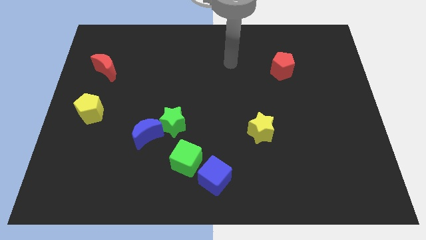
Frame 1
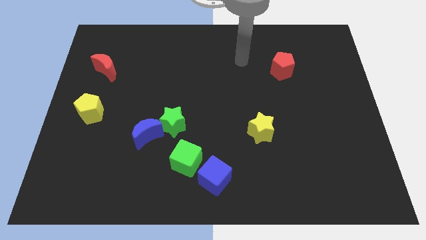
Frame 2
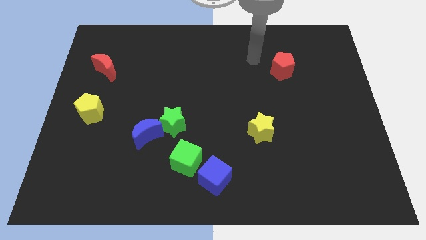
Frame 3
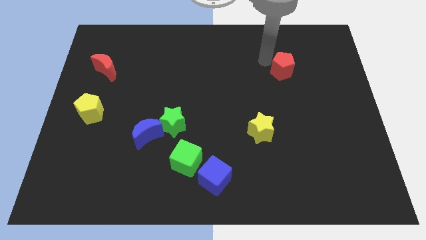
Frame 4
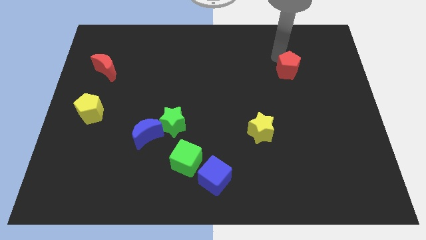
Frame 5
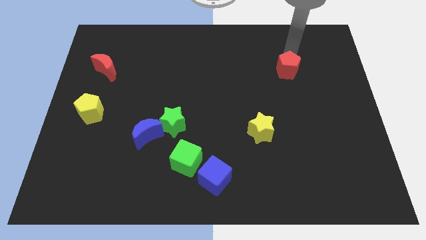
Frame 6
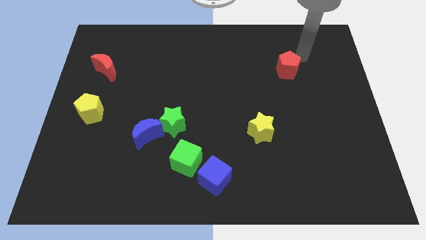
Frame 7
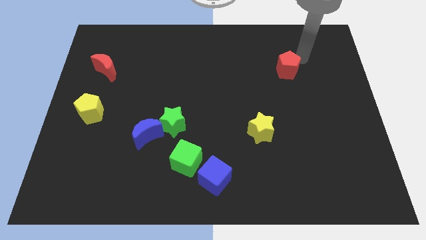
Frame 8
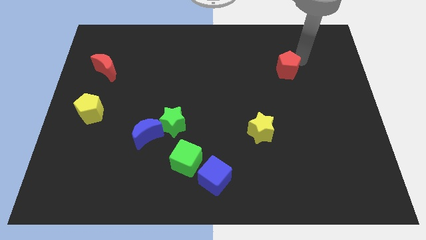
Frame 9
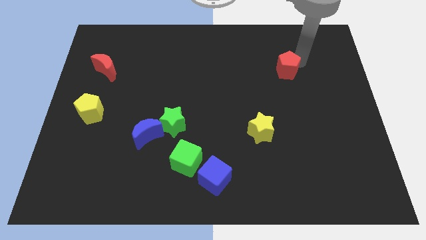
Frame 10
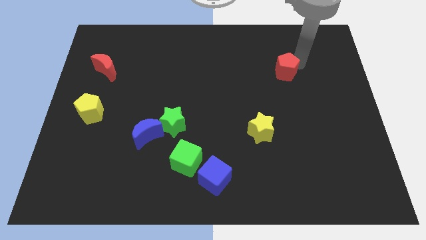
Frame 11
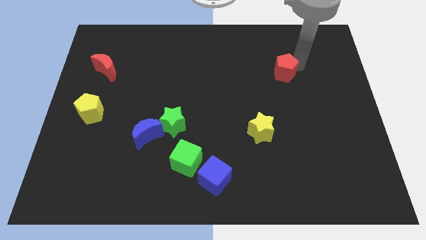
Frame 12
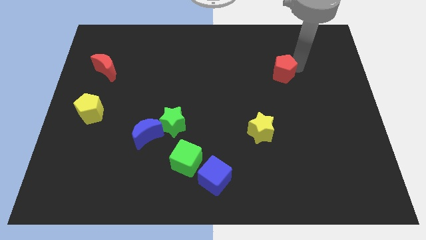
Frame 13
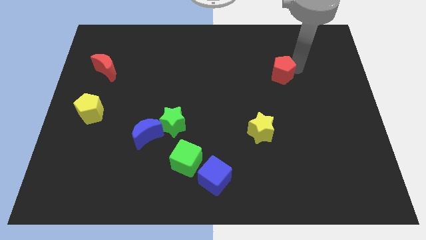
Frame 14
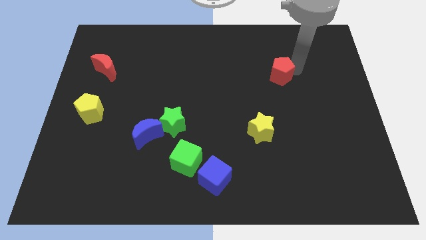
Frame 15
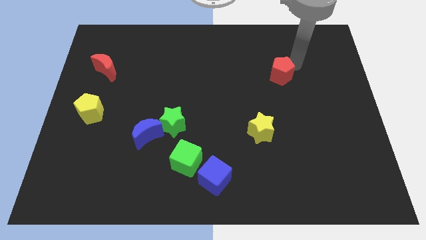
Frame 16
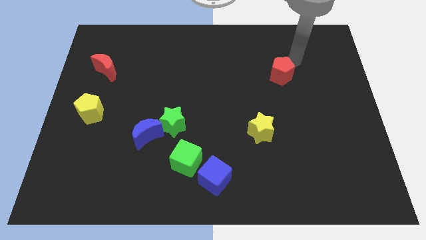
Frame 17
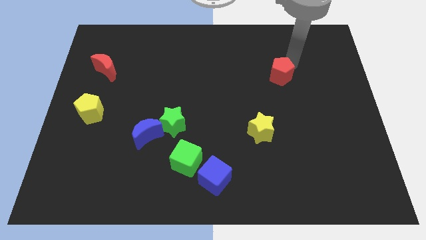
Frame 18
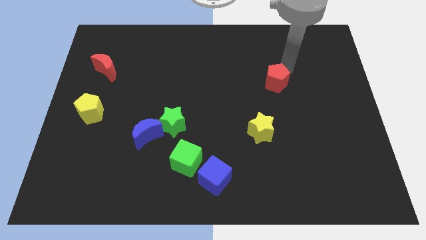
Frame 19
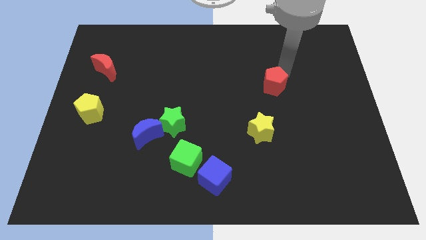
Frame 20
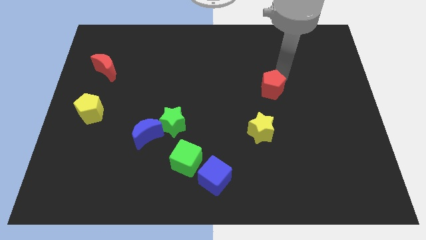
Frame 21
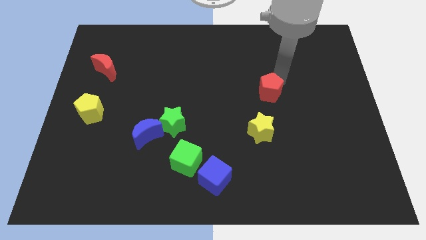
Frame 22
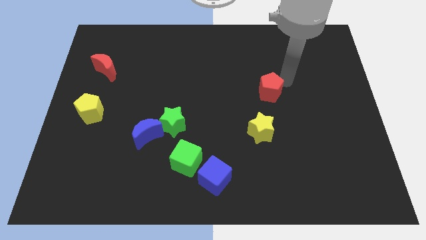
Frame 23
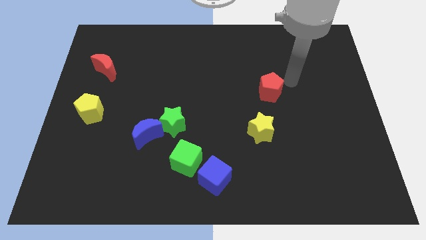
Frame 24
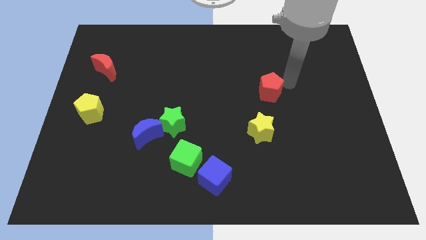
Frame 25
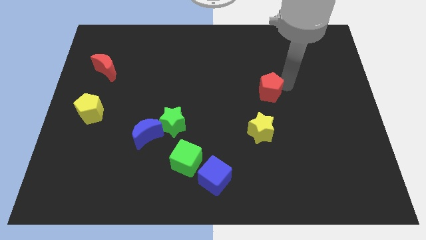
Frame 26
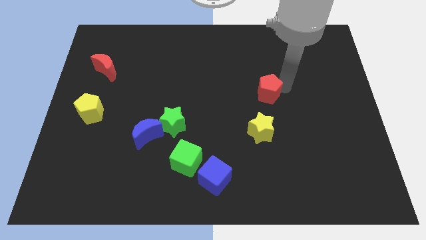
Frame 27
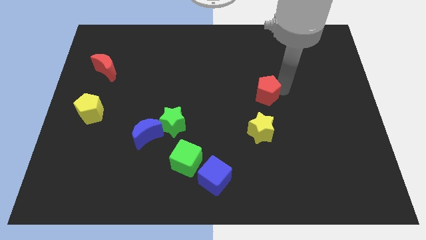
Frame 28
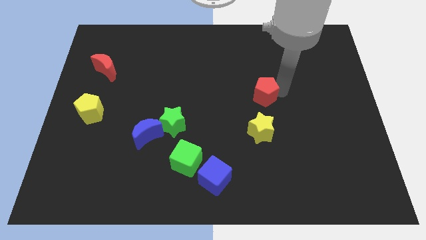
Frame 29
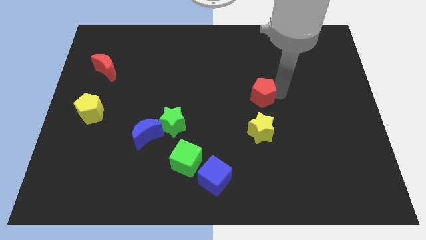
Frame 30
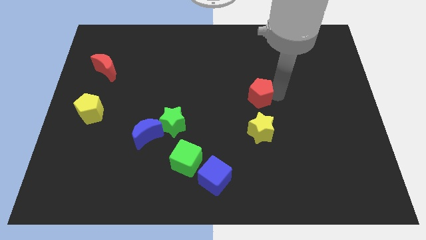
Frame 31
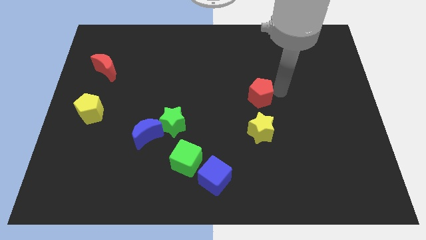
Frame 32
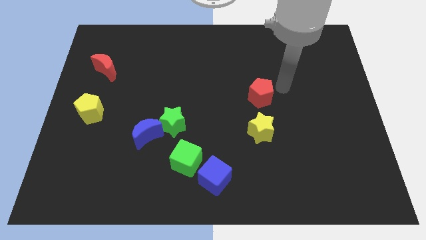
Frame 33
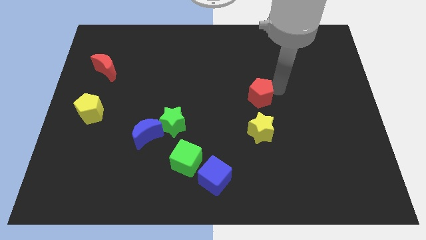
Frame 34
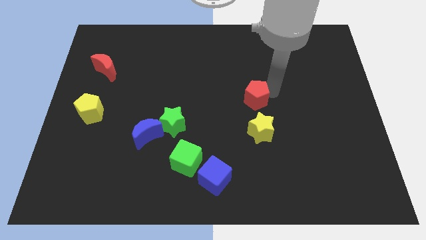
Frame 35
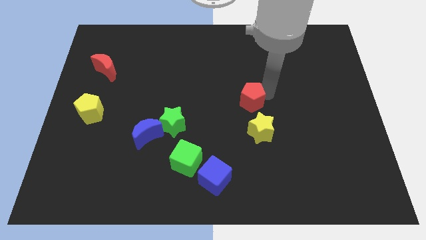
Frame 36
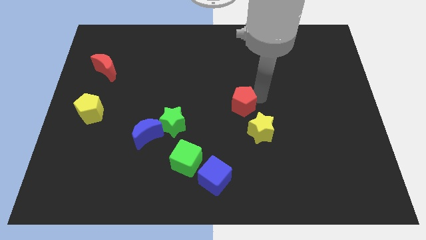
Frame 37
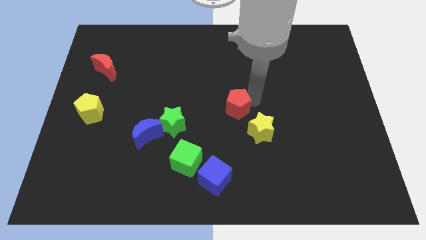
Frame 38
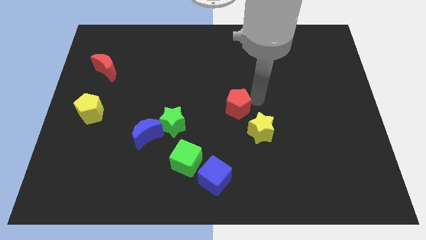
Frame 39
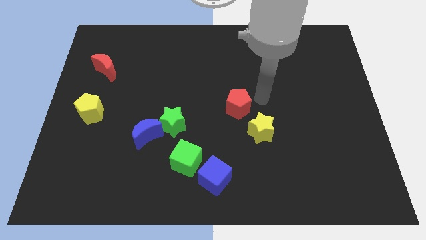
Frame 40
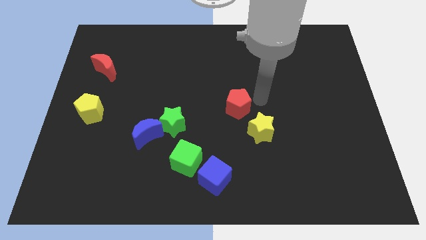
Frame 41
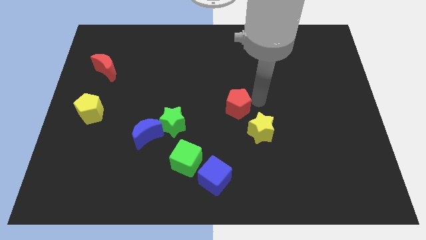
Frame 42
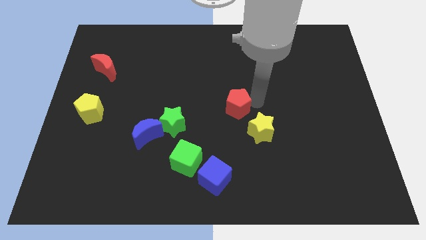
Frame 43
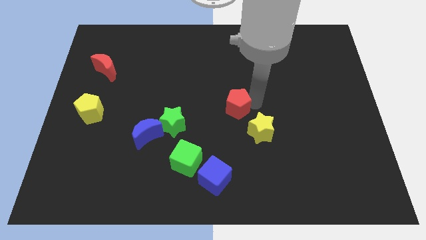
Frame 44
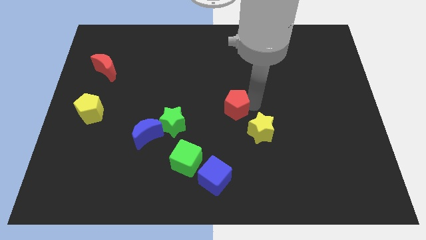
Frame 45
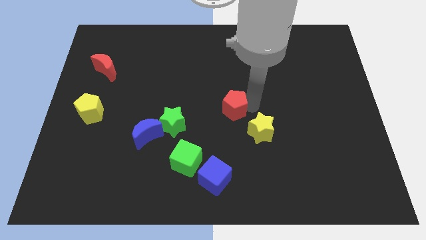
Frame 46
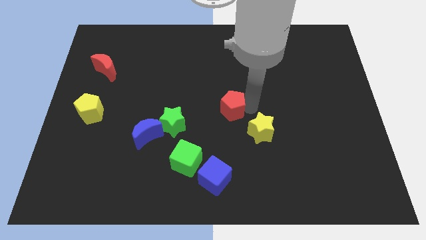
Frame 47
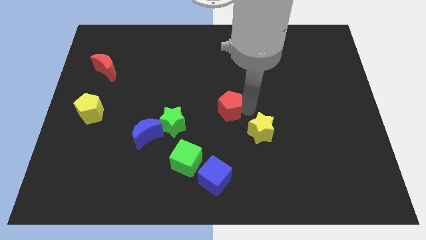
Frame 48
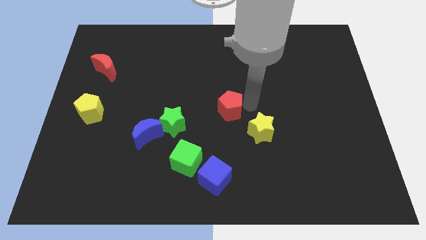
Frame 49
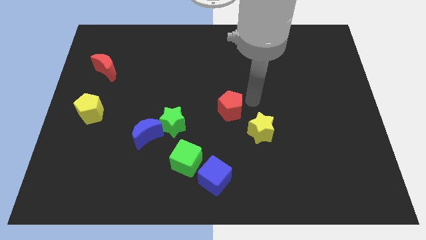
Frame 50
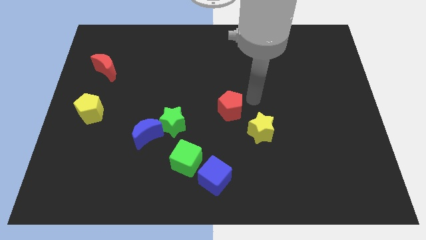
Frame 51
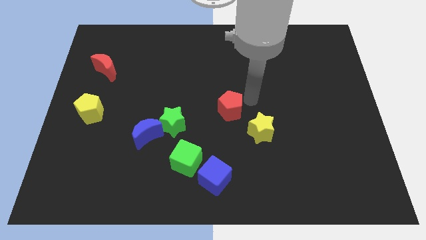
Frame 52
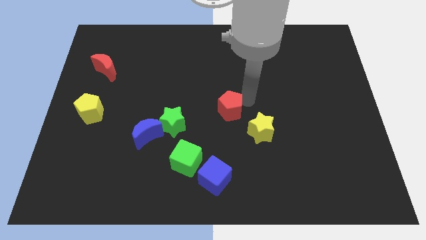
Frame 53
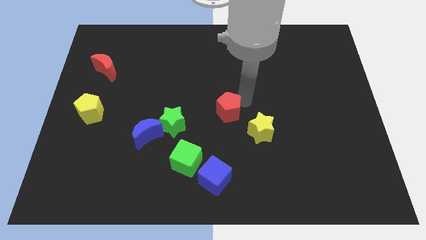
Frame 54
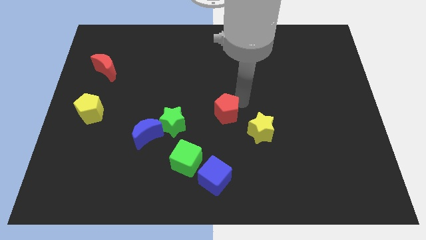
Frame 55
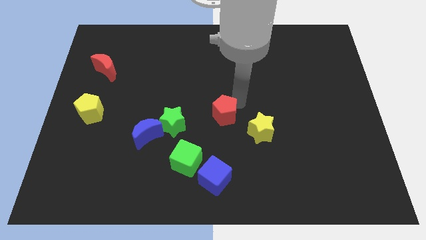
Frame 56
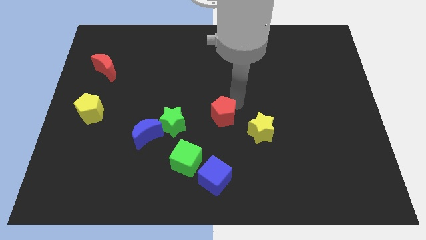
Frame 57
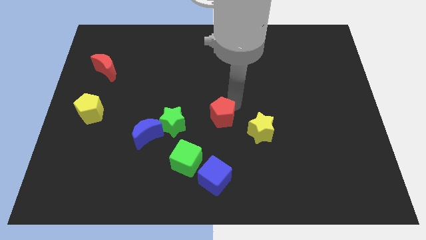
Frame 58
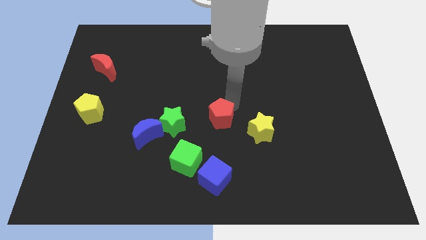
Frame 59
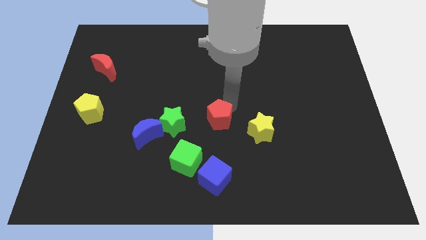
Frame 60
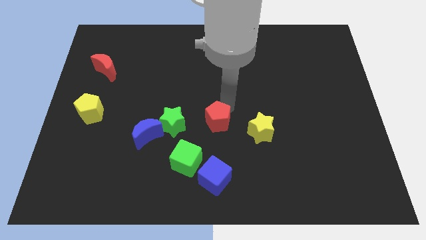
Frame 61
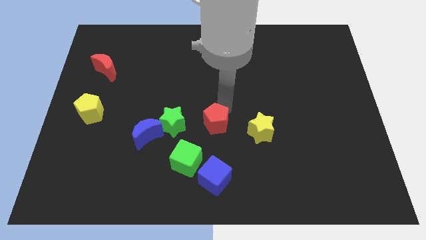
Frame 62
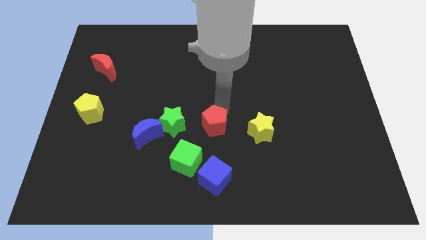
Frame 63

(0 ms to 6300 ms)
move the red pentagon just right of the blue moon

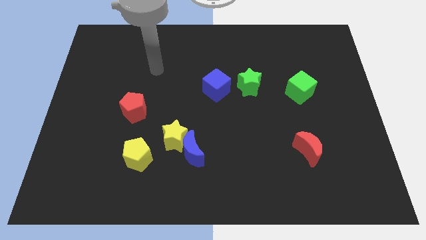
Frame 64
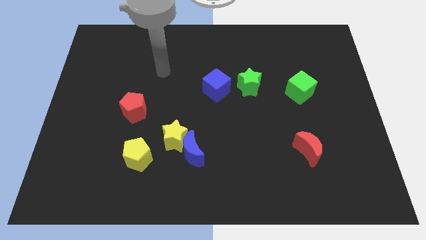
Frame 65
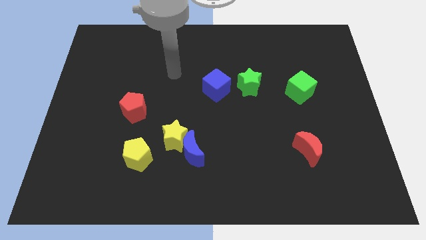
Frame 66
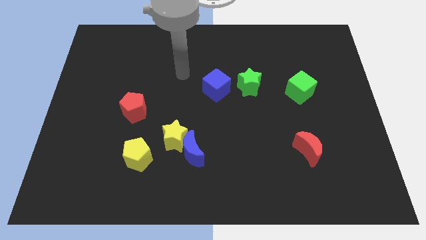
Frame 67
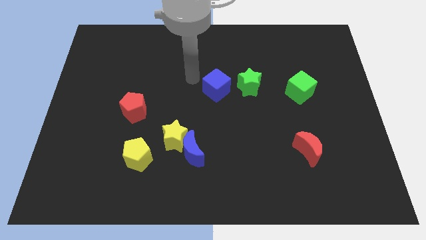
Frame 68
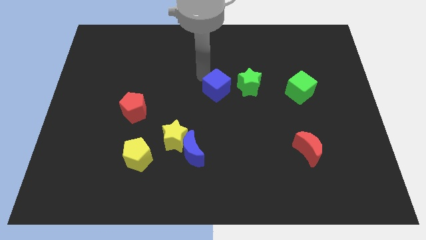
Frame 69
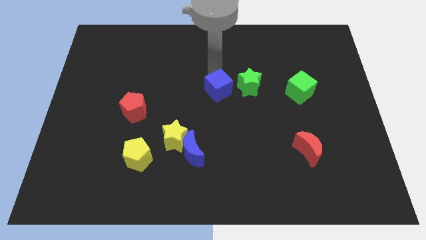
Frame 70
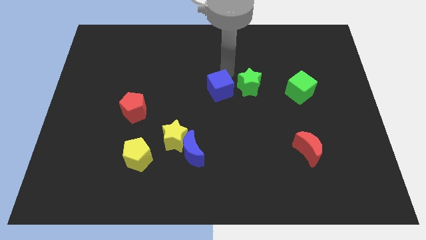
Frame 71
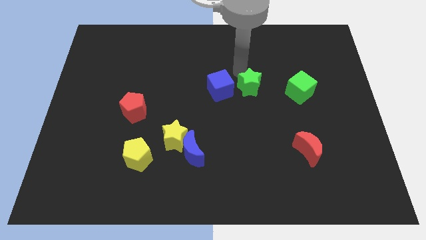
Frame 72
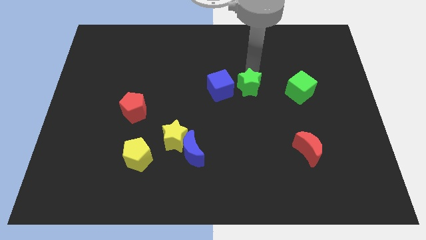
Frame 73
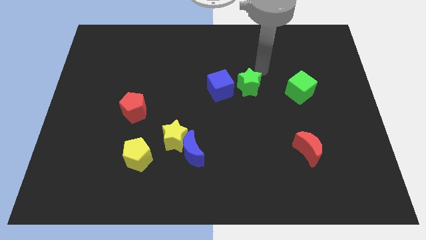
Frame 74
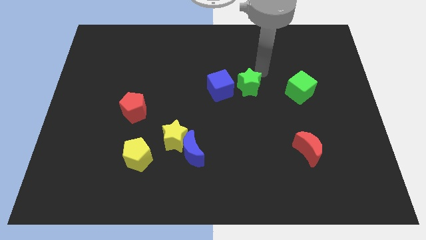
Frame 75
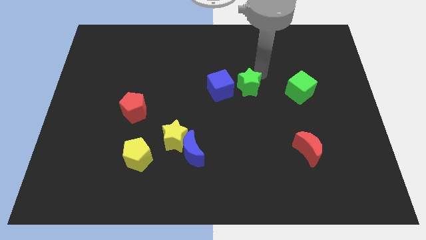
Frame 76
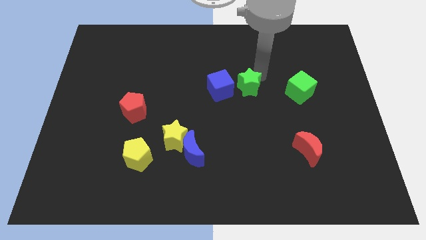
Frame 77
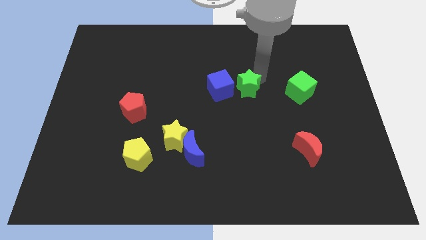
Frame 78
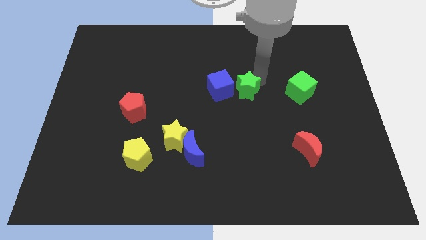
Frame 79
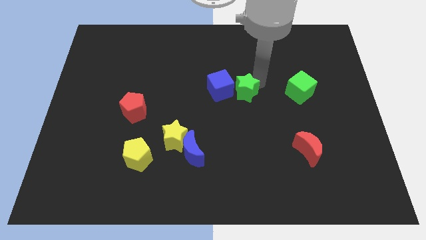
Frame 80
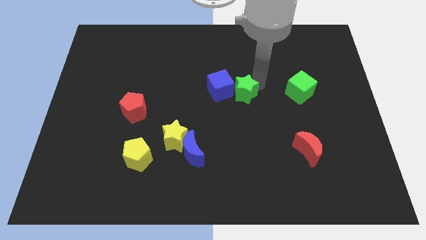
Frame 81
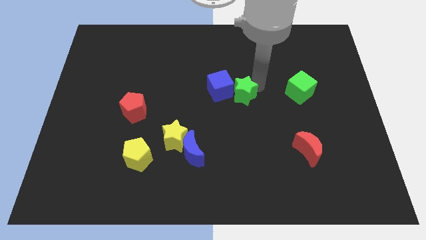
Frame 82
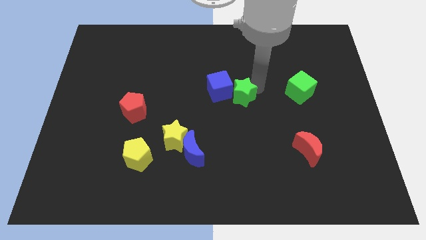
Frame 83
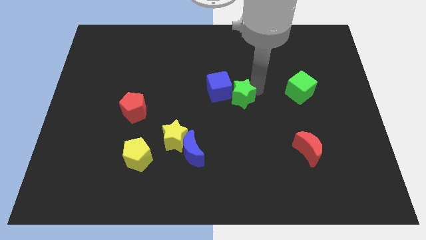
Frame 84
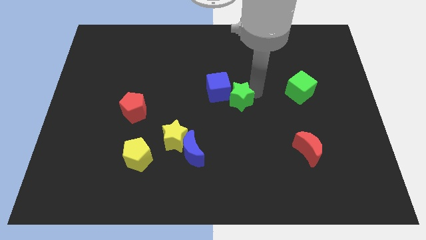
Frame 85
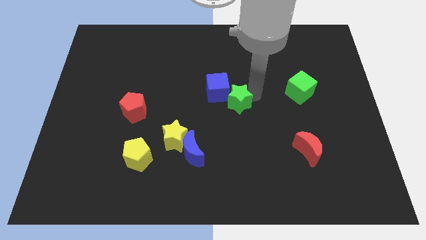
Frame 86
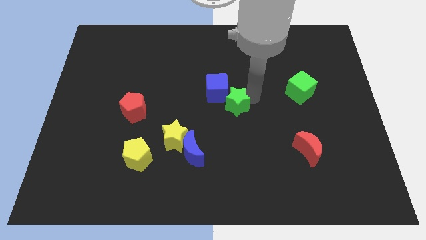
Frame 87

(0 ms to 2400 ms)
push the green star below the blue cube
